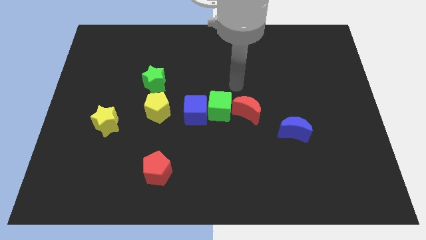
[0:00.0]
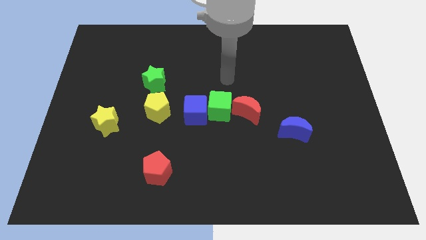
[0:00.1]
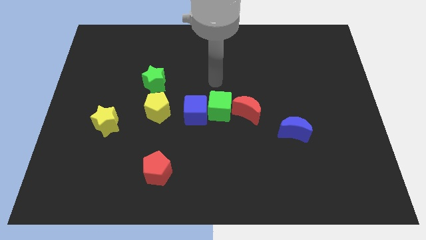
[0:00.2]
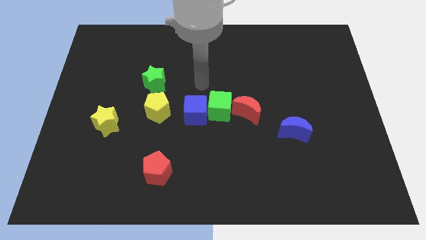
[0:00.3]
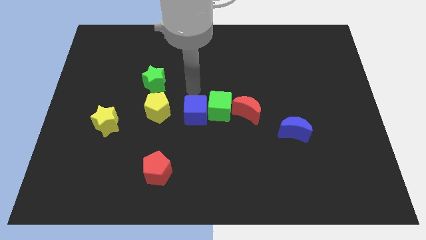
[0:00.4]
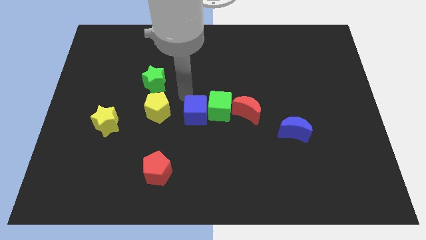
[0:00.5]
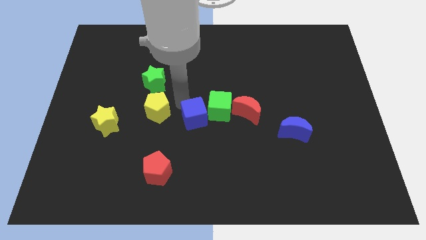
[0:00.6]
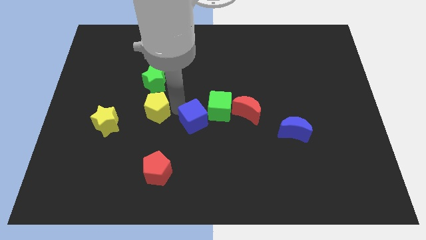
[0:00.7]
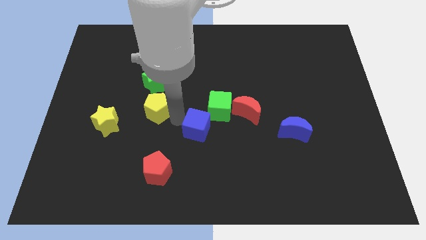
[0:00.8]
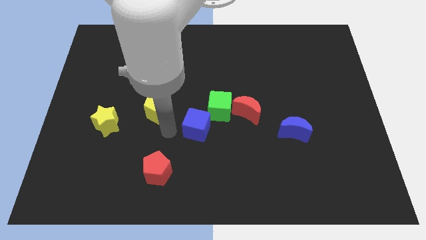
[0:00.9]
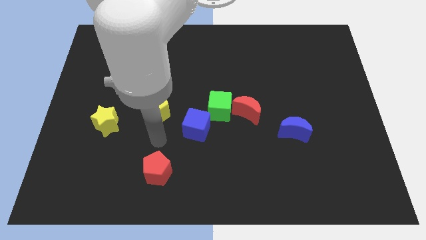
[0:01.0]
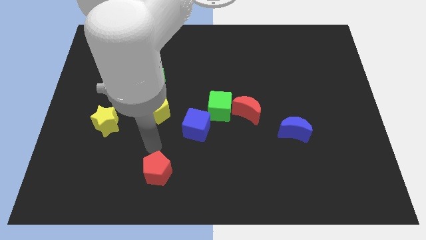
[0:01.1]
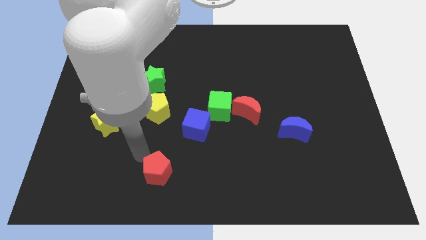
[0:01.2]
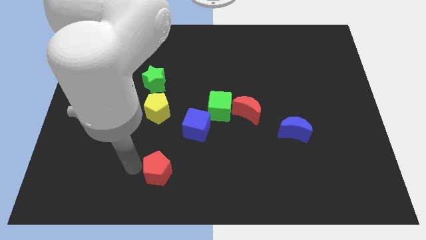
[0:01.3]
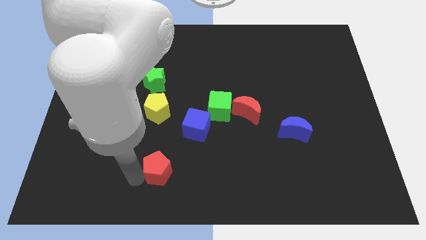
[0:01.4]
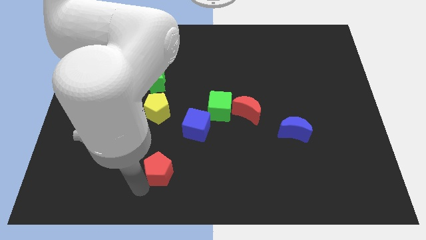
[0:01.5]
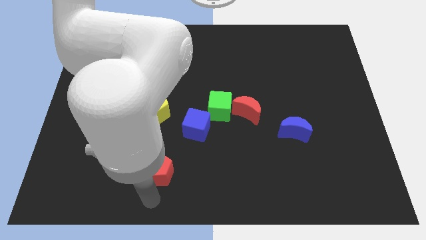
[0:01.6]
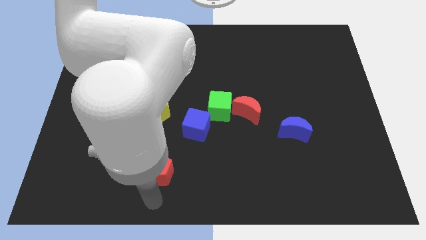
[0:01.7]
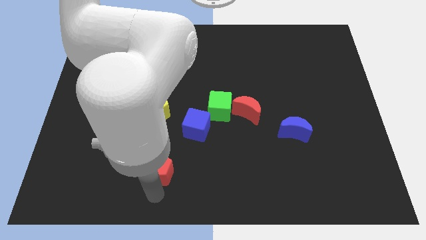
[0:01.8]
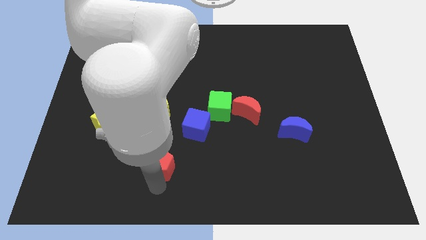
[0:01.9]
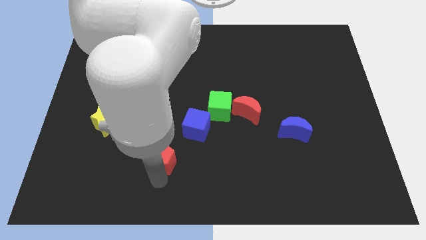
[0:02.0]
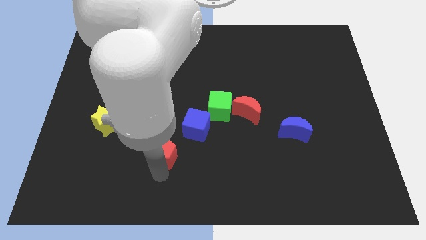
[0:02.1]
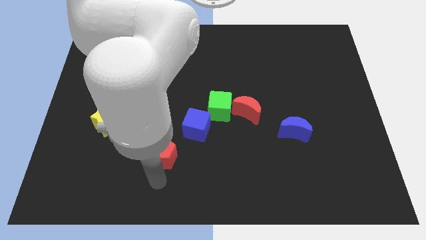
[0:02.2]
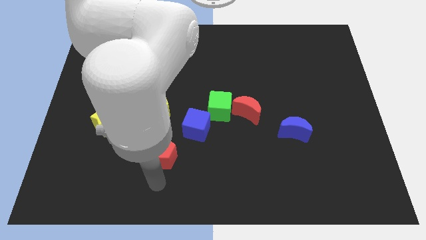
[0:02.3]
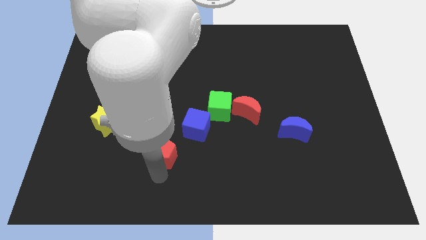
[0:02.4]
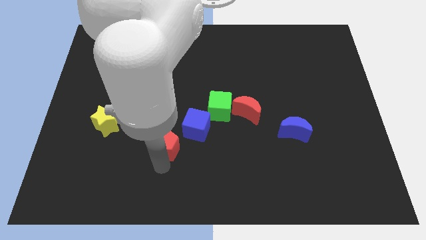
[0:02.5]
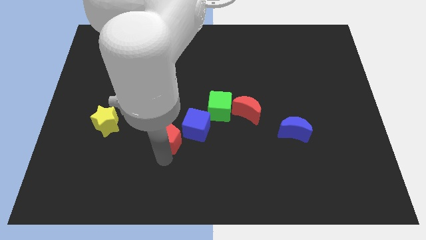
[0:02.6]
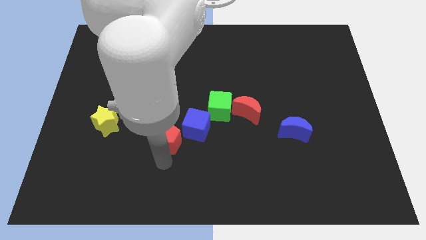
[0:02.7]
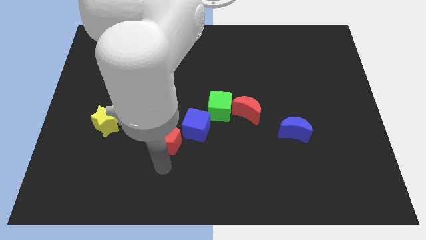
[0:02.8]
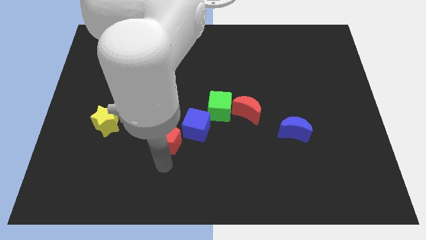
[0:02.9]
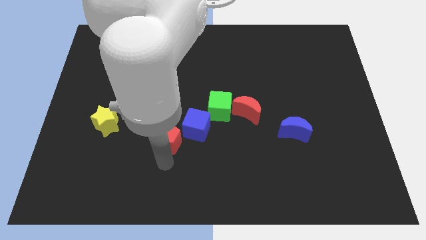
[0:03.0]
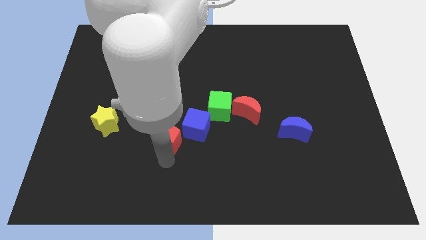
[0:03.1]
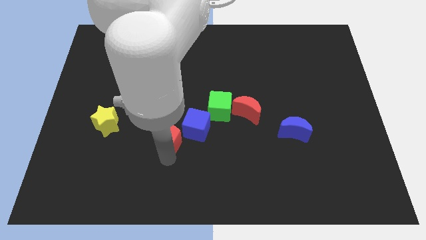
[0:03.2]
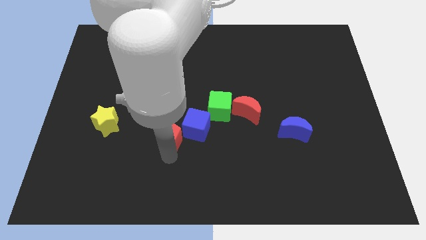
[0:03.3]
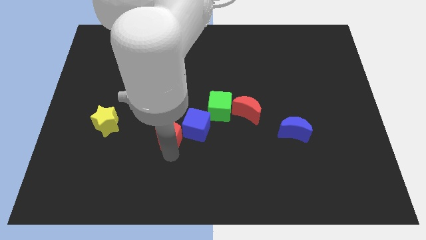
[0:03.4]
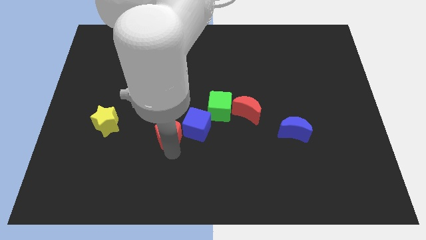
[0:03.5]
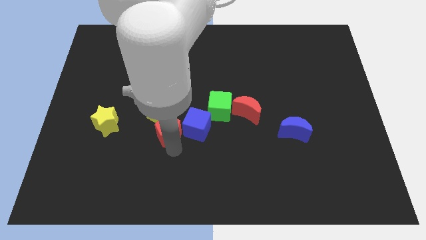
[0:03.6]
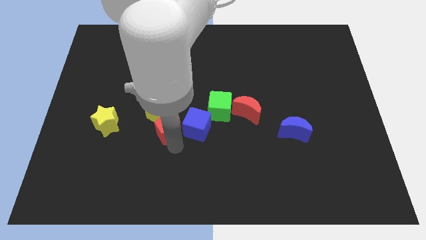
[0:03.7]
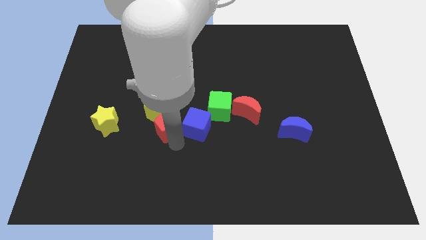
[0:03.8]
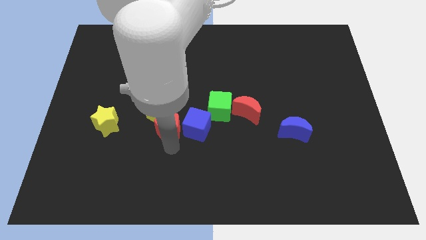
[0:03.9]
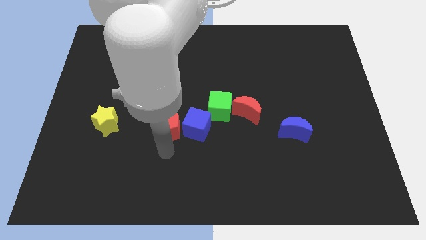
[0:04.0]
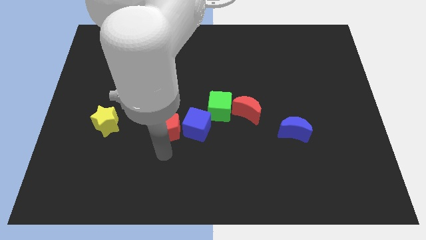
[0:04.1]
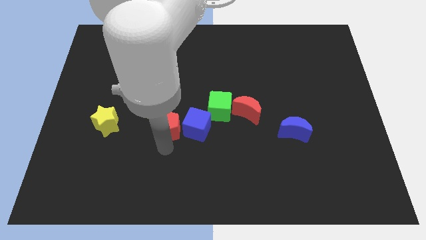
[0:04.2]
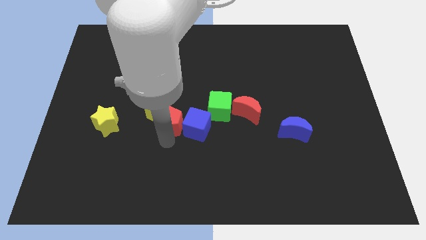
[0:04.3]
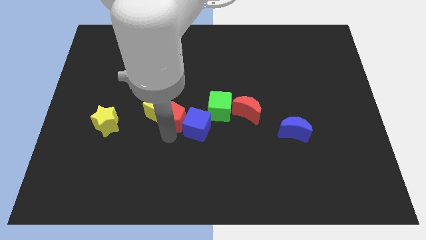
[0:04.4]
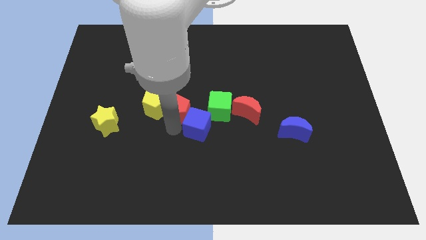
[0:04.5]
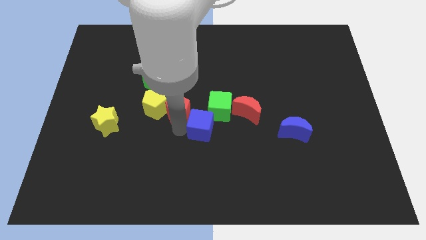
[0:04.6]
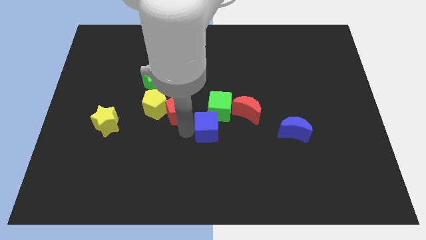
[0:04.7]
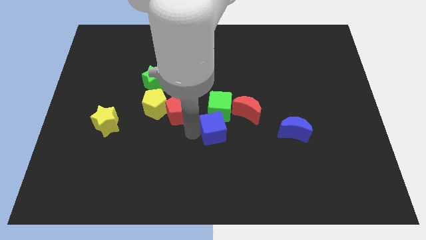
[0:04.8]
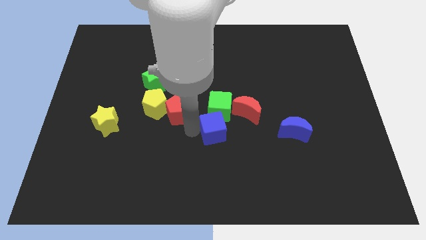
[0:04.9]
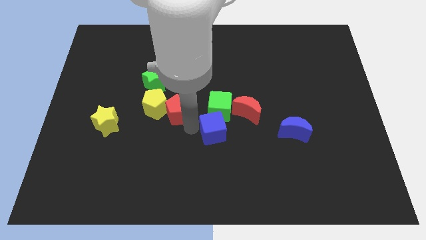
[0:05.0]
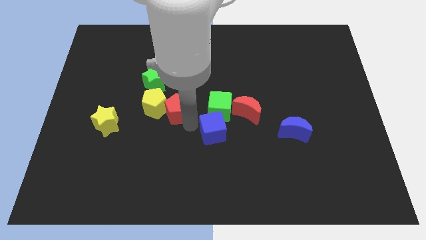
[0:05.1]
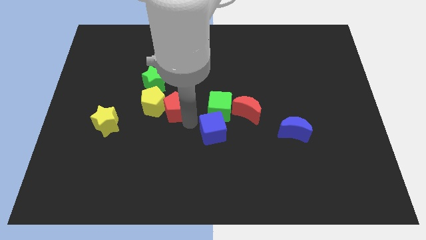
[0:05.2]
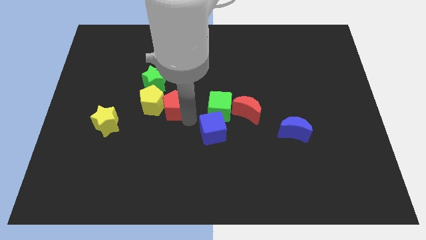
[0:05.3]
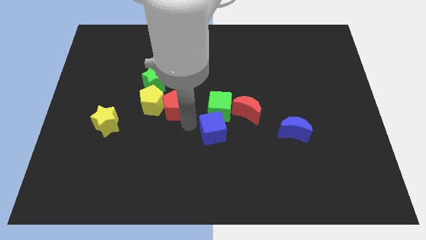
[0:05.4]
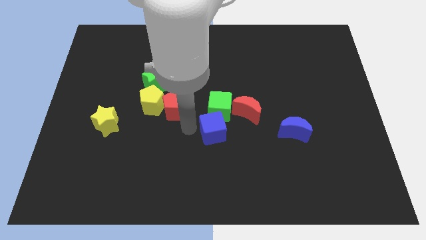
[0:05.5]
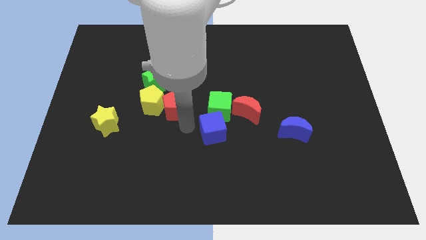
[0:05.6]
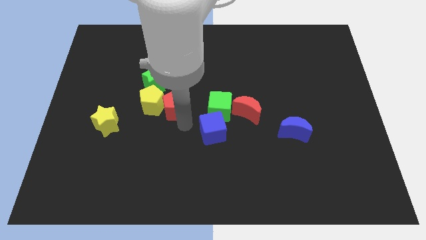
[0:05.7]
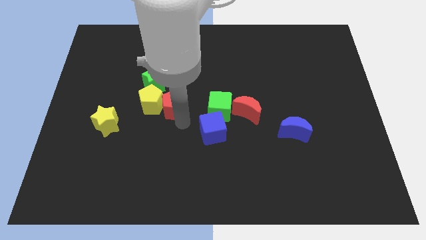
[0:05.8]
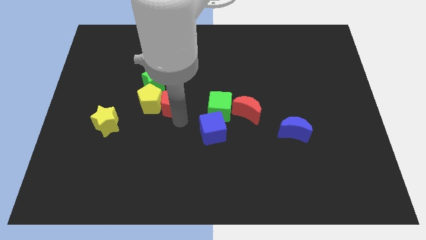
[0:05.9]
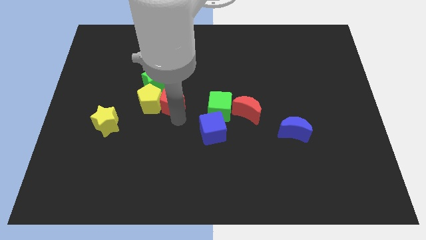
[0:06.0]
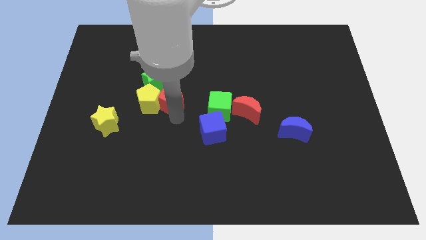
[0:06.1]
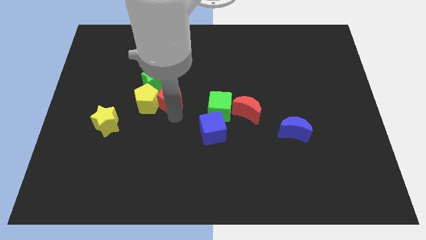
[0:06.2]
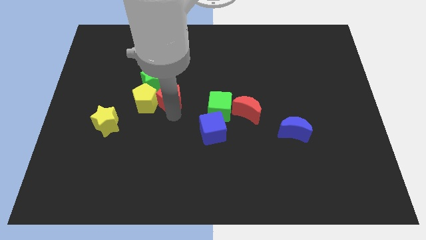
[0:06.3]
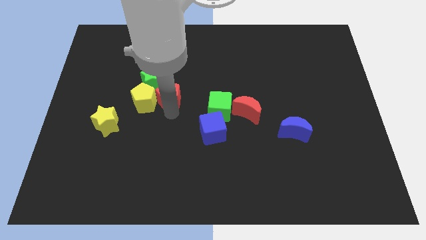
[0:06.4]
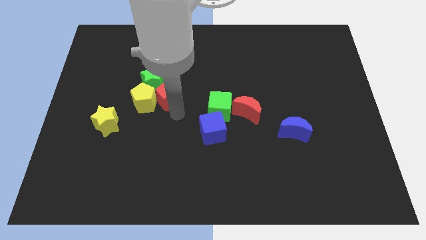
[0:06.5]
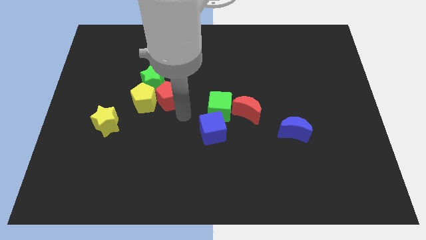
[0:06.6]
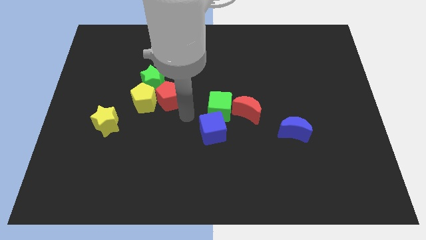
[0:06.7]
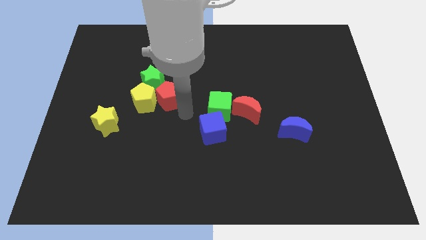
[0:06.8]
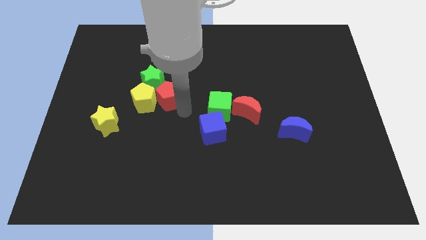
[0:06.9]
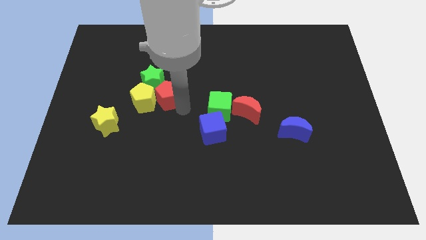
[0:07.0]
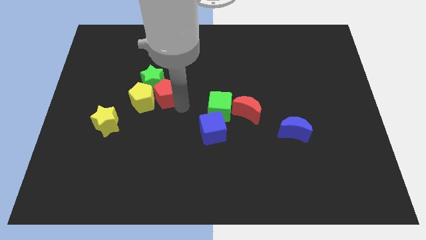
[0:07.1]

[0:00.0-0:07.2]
slide the red pentagon close to the green star
